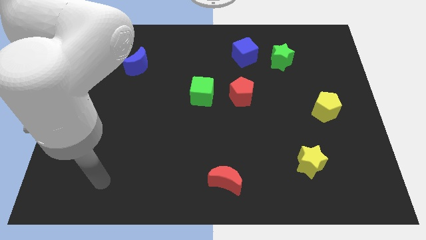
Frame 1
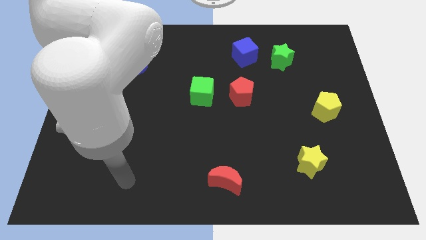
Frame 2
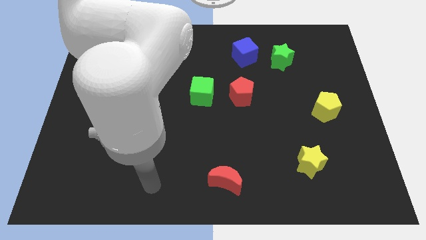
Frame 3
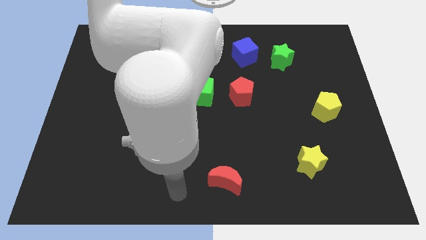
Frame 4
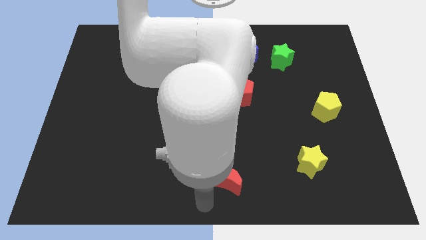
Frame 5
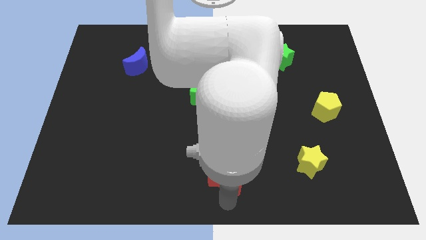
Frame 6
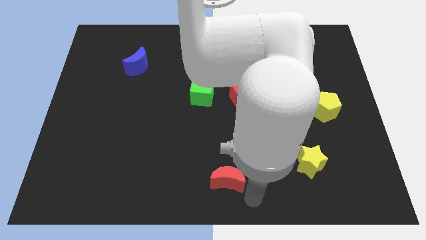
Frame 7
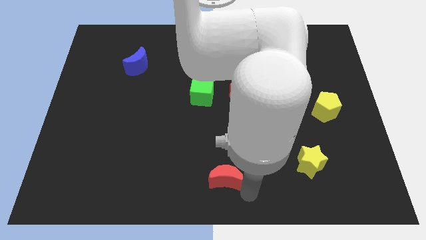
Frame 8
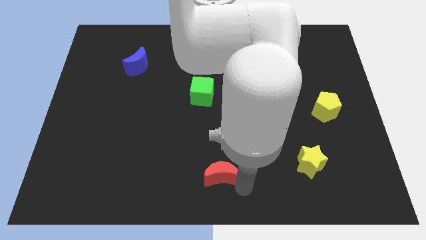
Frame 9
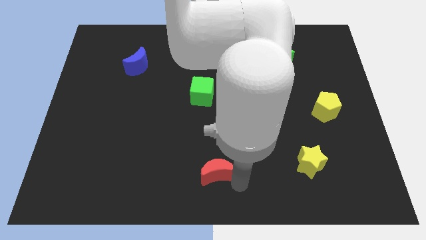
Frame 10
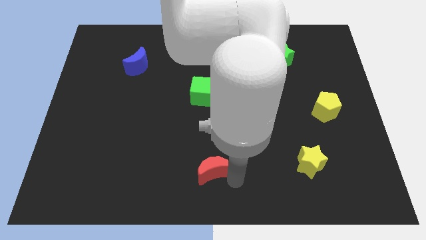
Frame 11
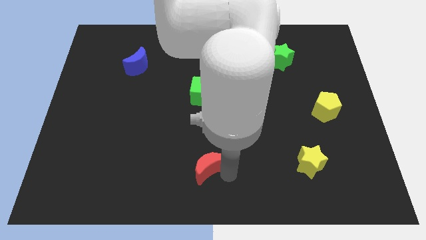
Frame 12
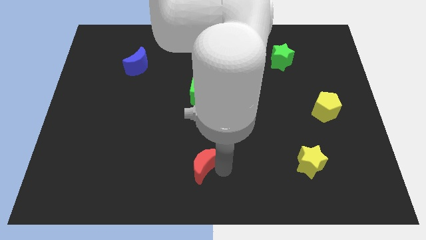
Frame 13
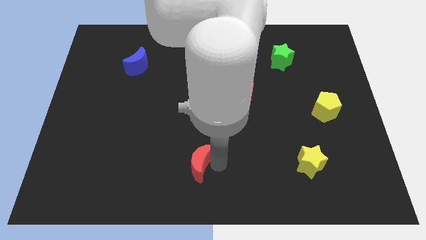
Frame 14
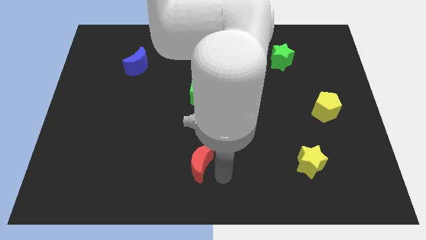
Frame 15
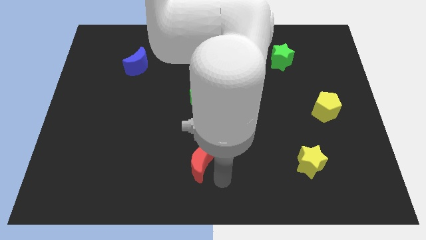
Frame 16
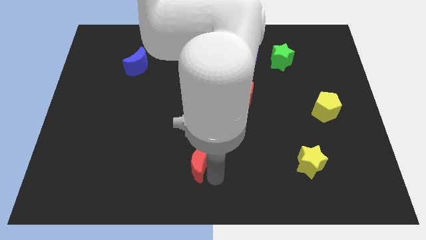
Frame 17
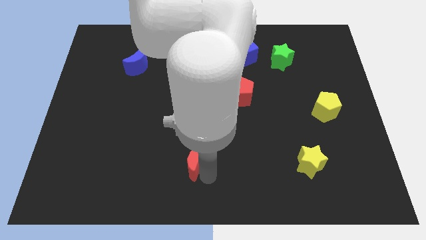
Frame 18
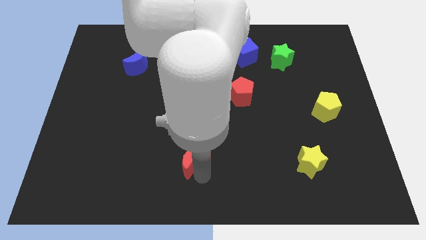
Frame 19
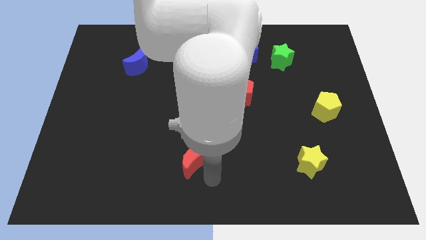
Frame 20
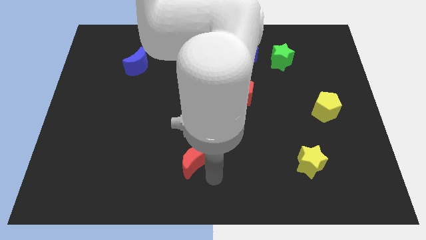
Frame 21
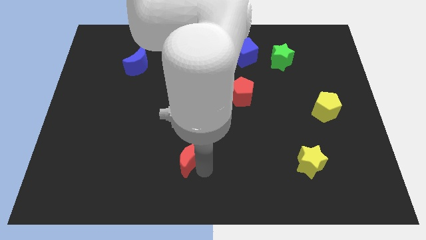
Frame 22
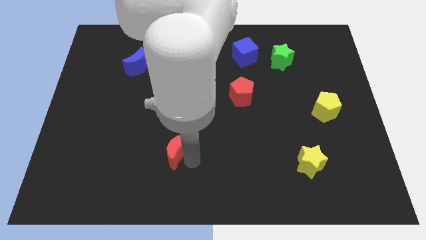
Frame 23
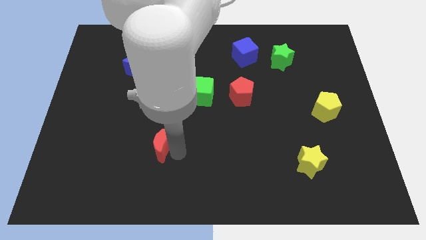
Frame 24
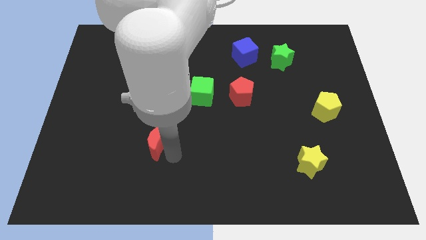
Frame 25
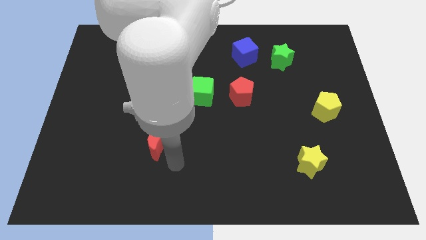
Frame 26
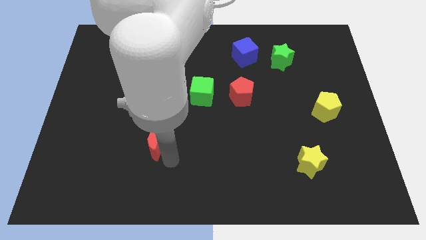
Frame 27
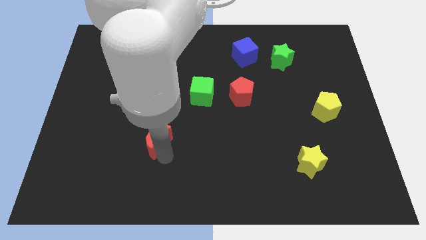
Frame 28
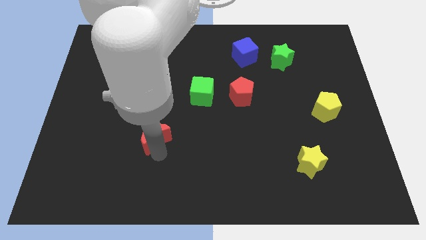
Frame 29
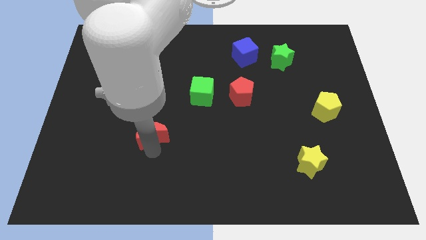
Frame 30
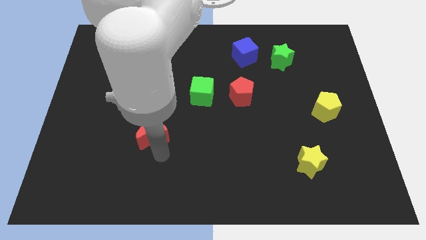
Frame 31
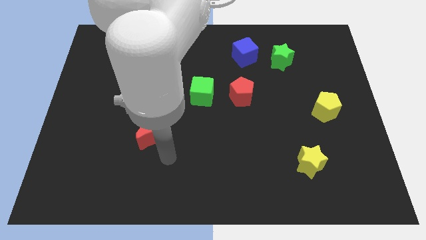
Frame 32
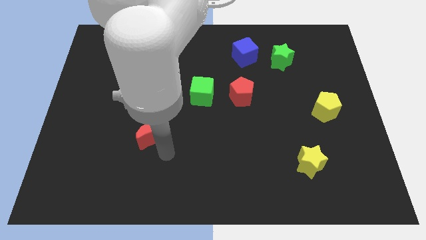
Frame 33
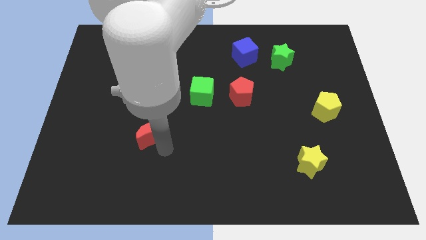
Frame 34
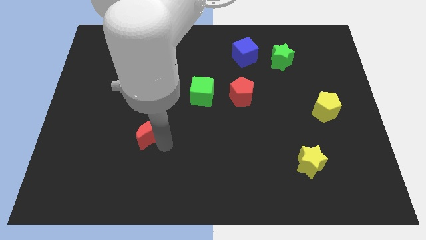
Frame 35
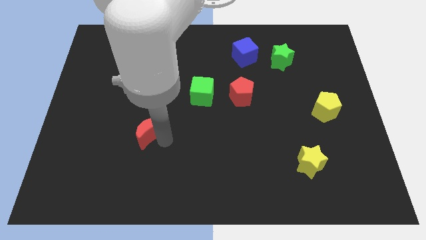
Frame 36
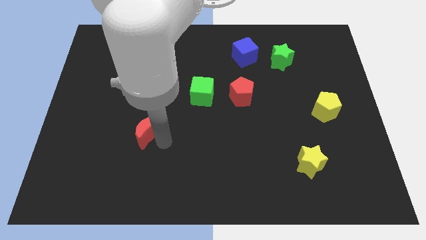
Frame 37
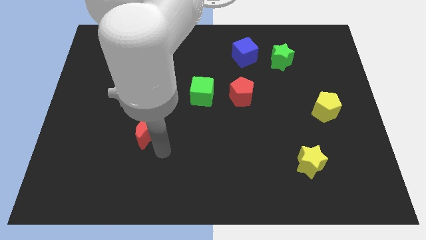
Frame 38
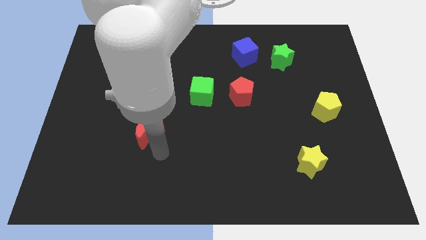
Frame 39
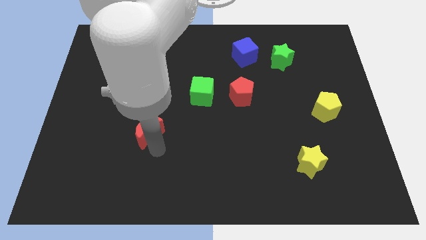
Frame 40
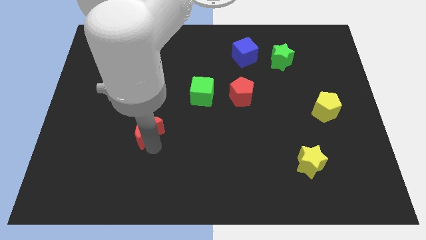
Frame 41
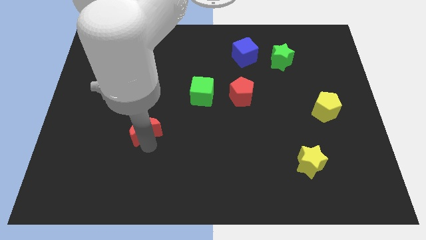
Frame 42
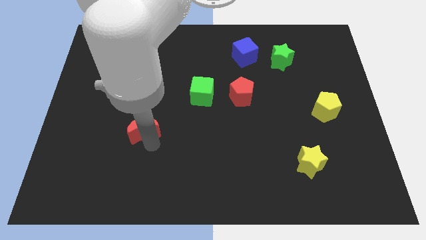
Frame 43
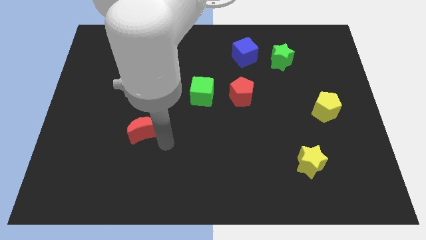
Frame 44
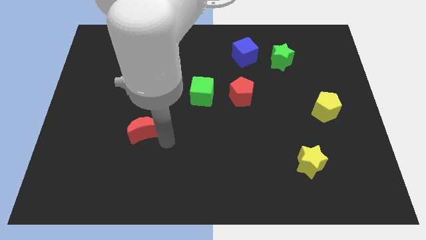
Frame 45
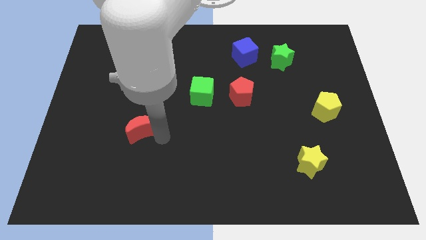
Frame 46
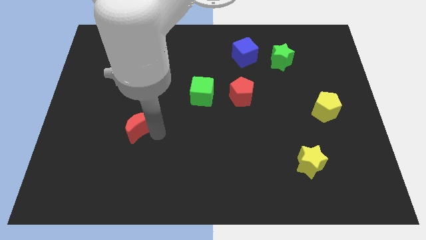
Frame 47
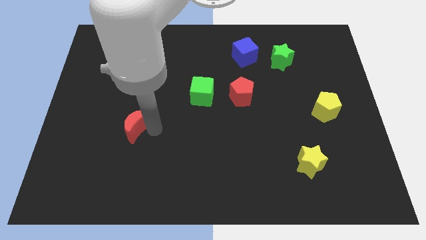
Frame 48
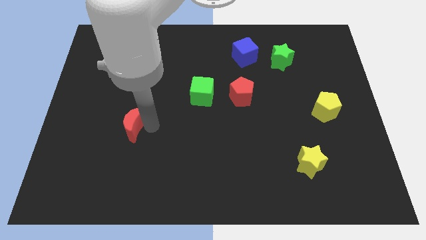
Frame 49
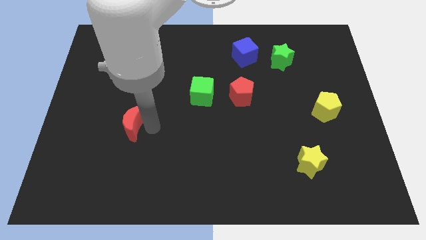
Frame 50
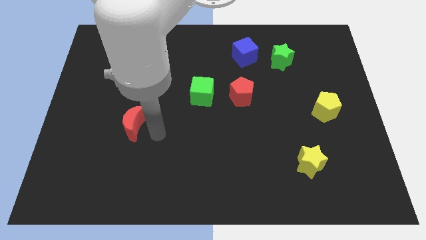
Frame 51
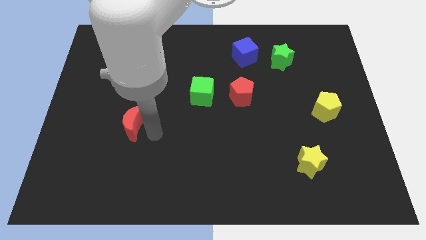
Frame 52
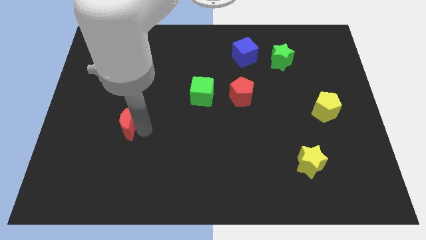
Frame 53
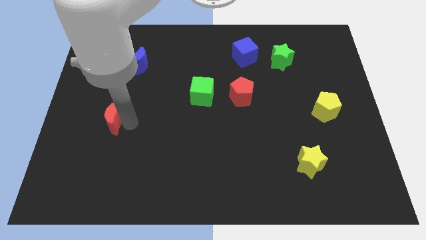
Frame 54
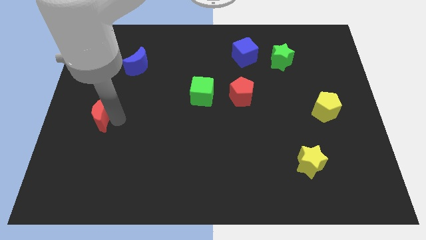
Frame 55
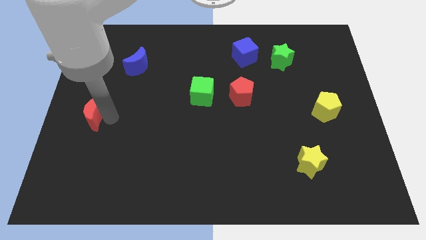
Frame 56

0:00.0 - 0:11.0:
put the red moon to the left side

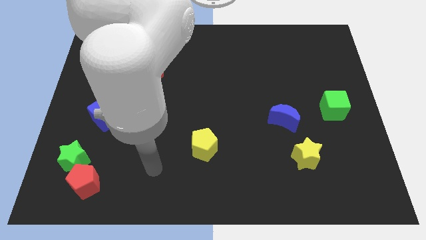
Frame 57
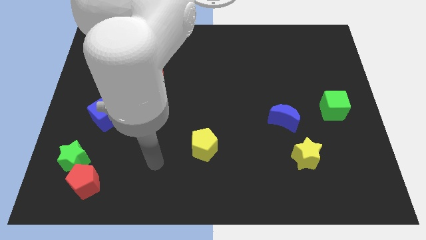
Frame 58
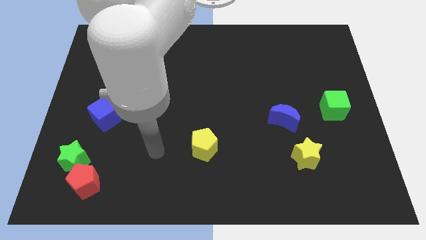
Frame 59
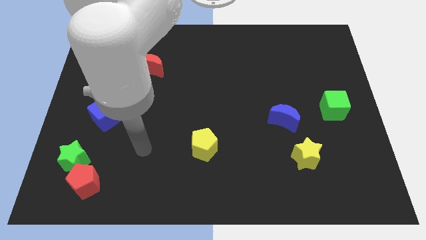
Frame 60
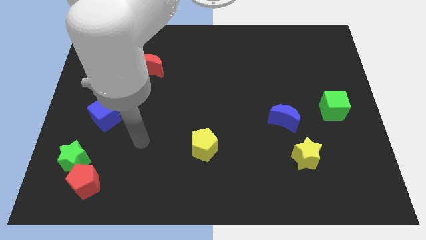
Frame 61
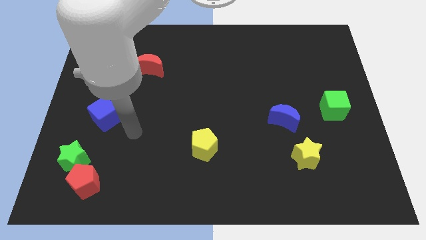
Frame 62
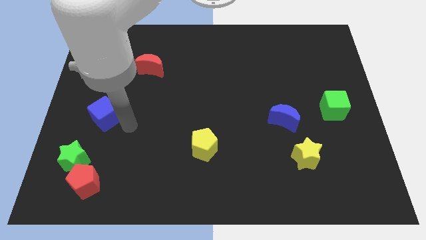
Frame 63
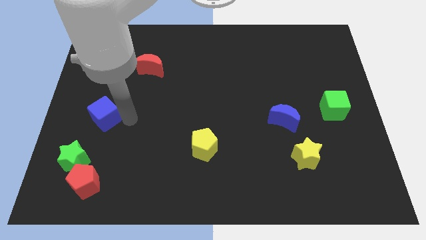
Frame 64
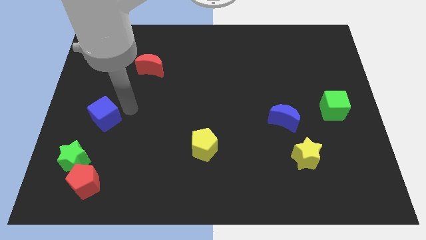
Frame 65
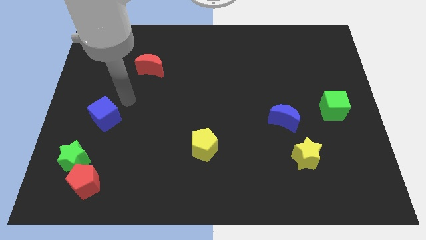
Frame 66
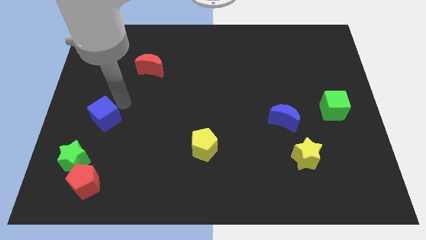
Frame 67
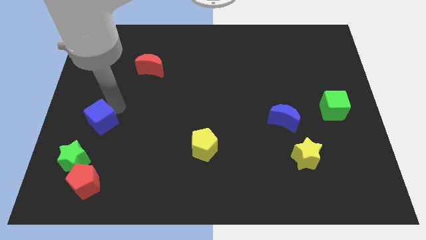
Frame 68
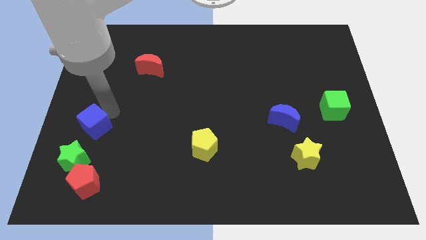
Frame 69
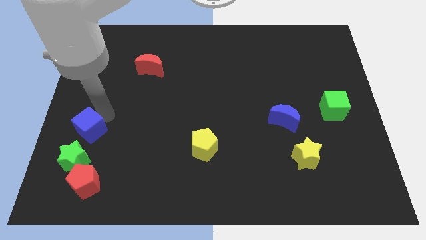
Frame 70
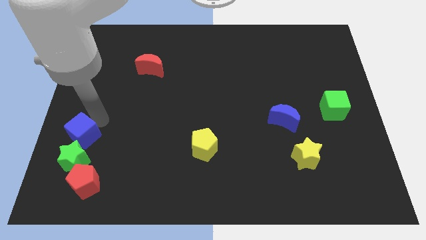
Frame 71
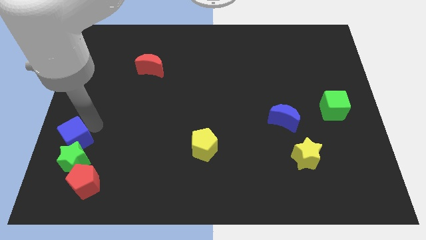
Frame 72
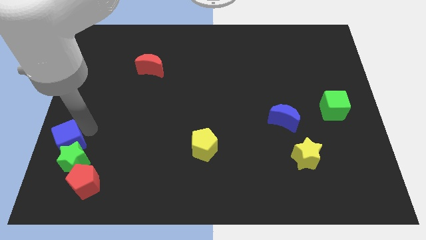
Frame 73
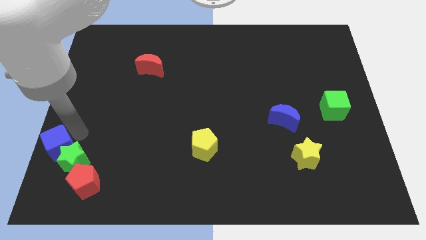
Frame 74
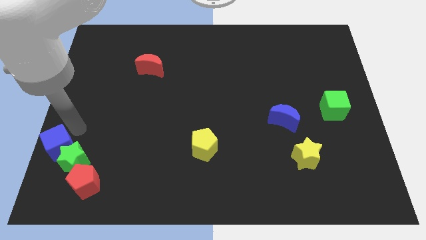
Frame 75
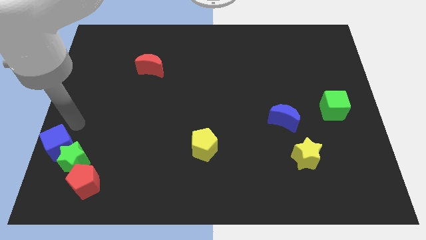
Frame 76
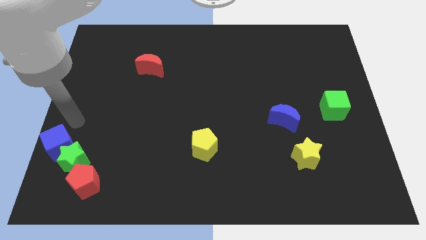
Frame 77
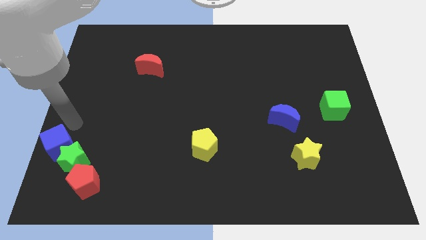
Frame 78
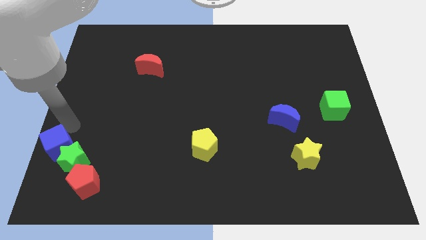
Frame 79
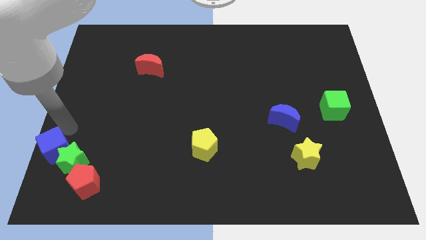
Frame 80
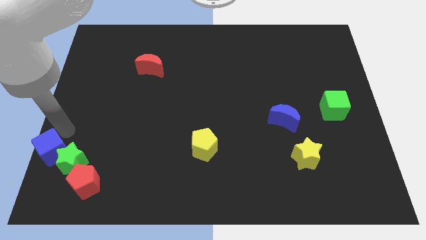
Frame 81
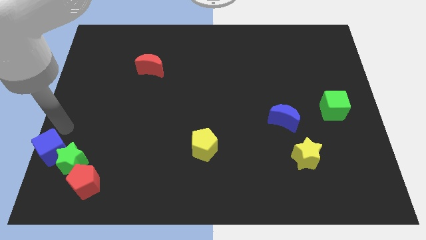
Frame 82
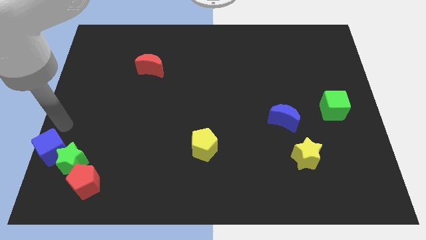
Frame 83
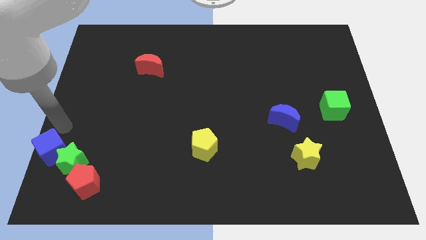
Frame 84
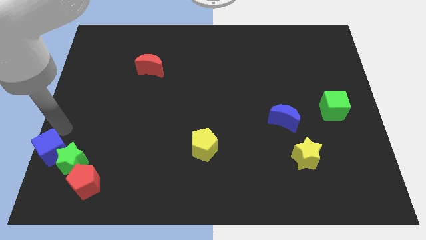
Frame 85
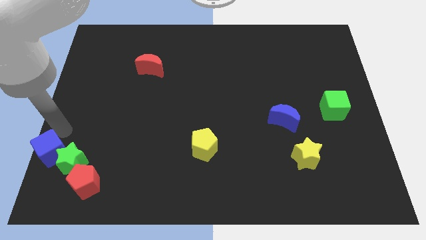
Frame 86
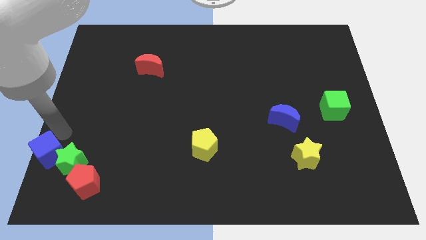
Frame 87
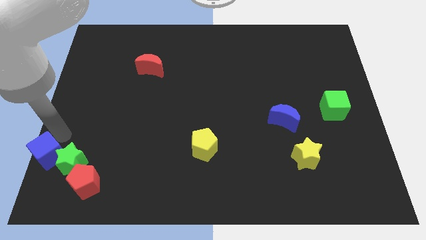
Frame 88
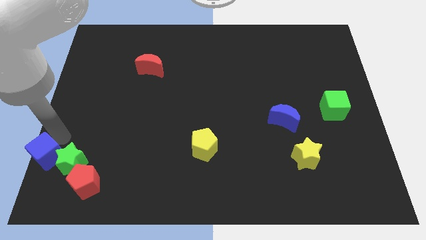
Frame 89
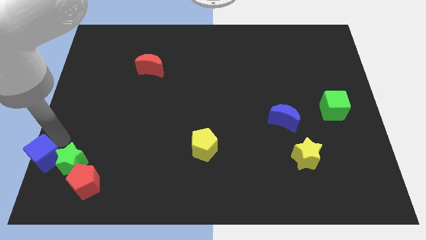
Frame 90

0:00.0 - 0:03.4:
put the blue cube to the bottom left corner
